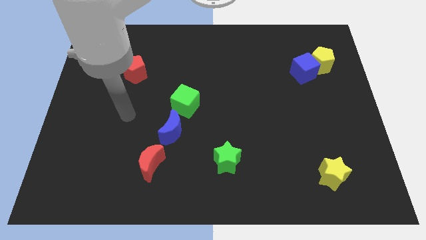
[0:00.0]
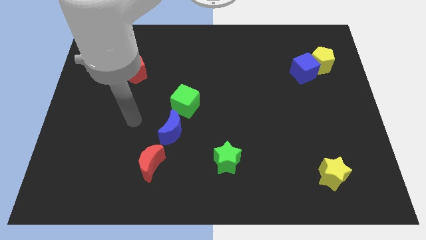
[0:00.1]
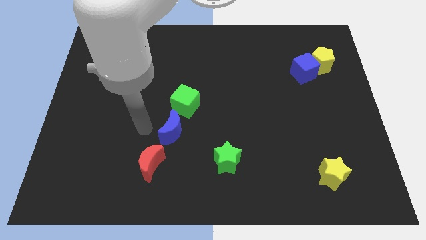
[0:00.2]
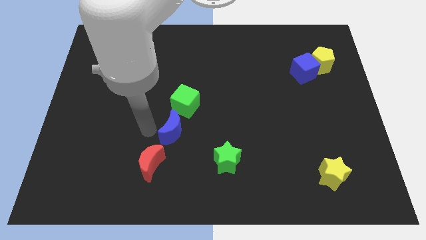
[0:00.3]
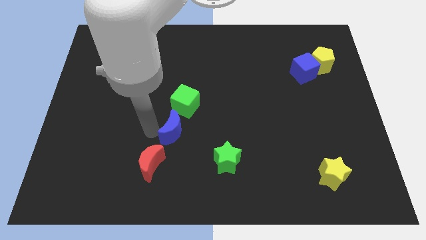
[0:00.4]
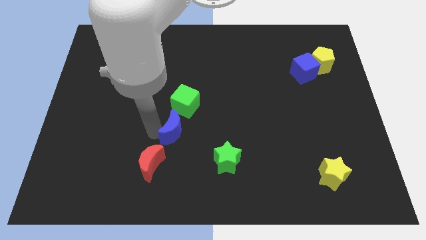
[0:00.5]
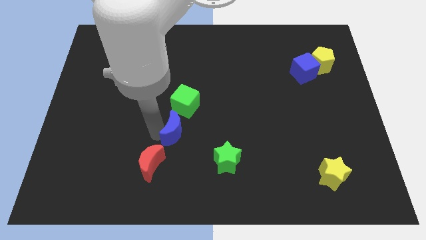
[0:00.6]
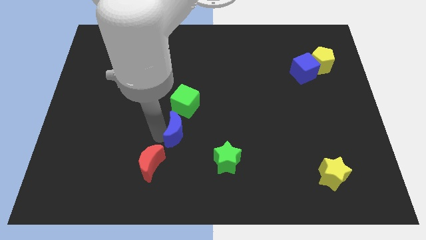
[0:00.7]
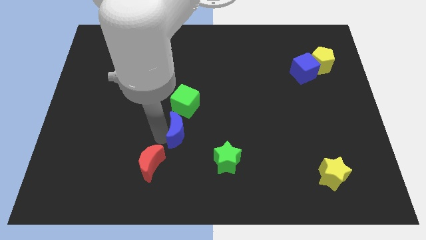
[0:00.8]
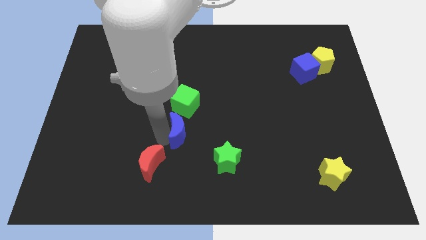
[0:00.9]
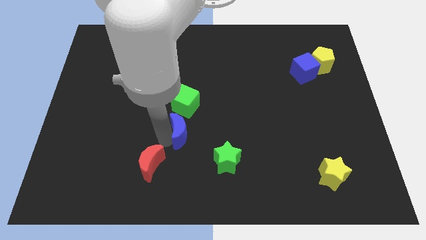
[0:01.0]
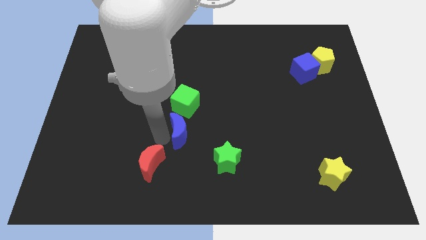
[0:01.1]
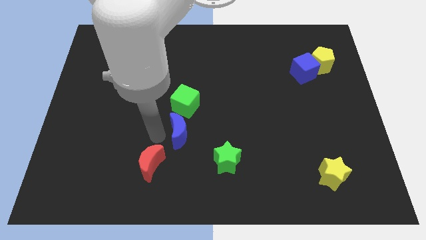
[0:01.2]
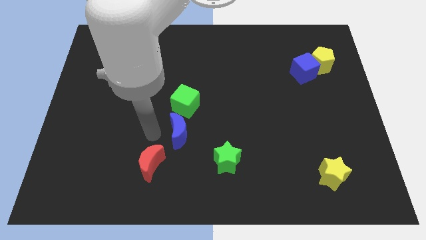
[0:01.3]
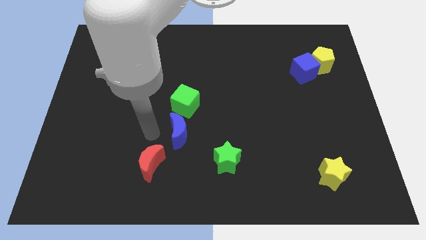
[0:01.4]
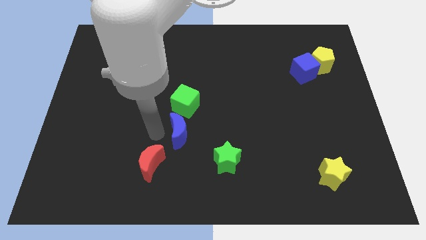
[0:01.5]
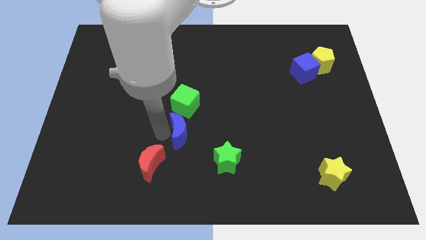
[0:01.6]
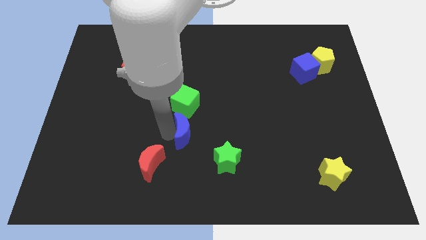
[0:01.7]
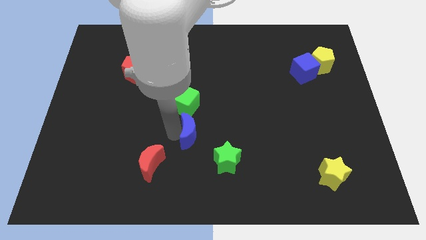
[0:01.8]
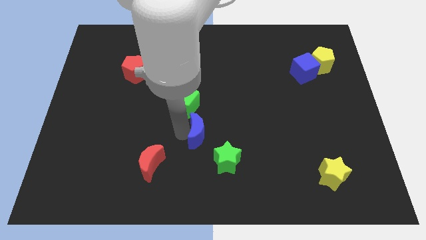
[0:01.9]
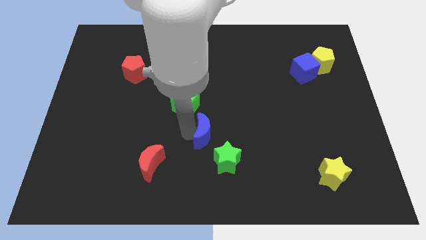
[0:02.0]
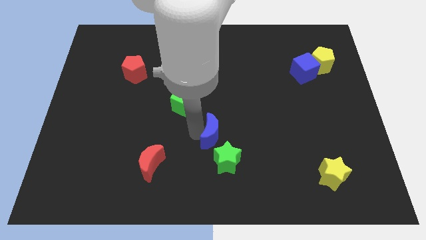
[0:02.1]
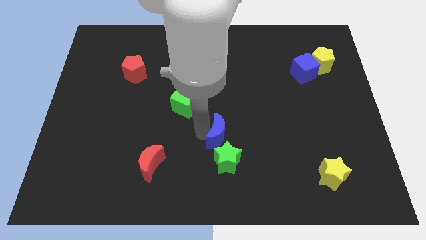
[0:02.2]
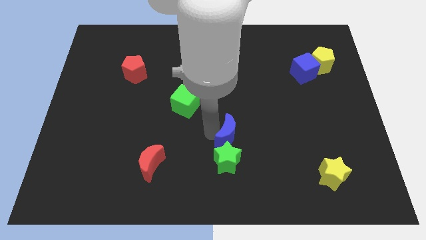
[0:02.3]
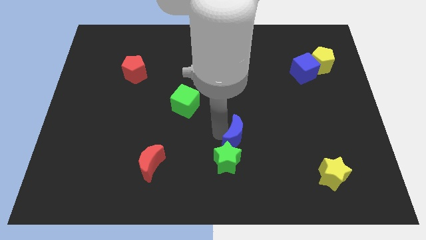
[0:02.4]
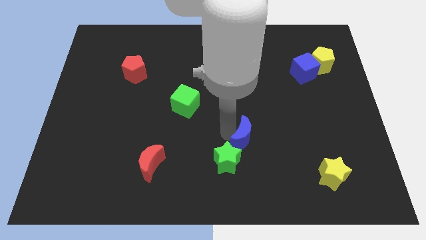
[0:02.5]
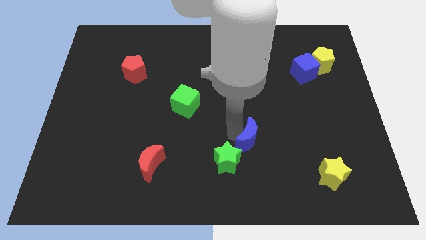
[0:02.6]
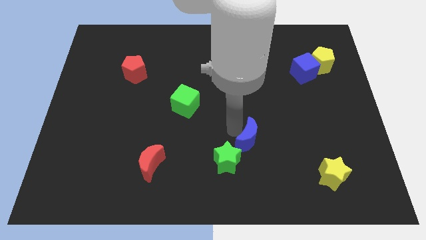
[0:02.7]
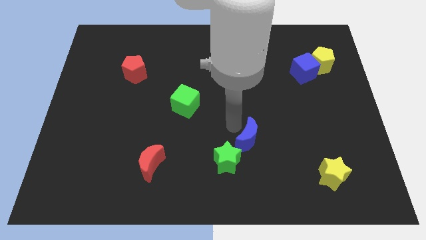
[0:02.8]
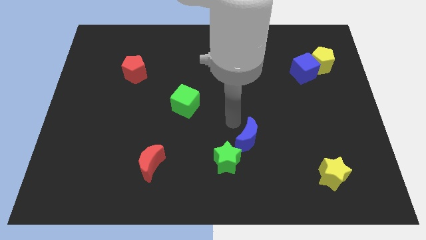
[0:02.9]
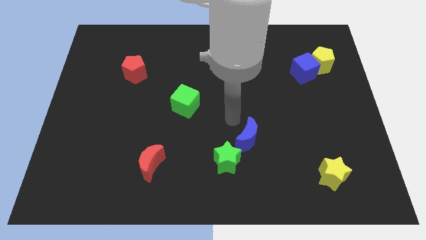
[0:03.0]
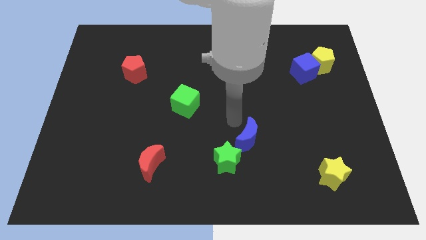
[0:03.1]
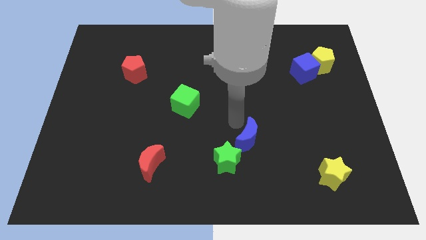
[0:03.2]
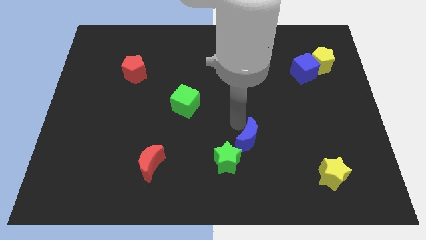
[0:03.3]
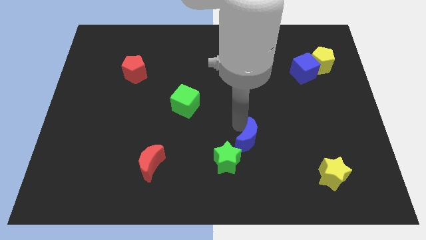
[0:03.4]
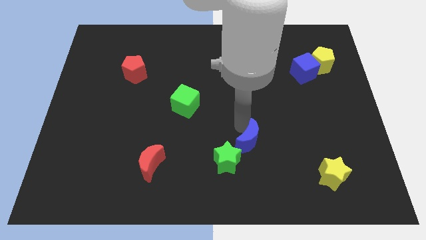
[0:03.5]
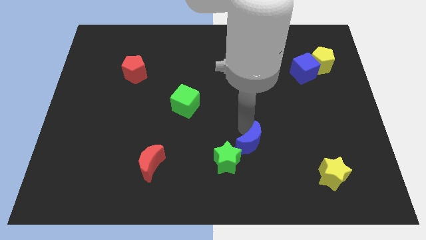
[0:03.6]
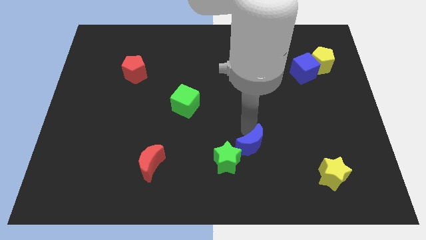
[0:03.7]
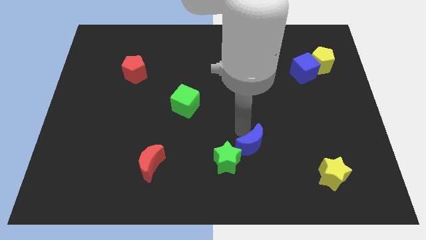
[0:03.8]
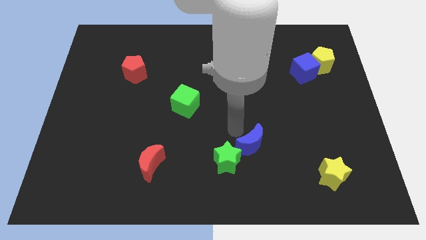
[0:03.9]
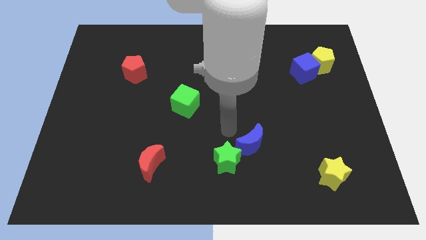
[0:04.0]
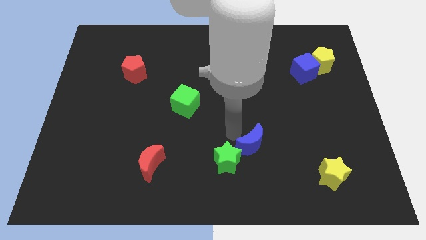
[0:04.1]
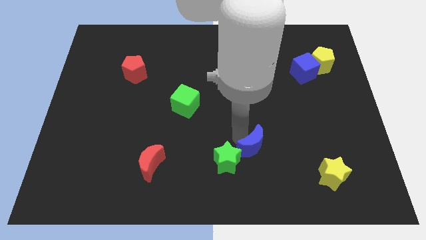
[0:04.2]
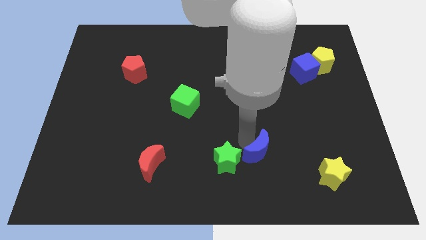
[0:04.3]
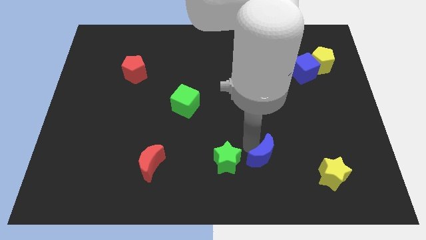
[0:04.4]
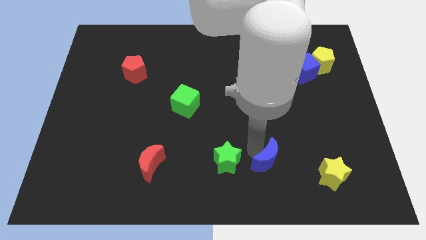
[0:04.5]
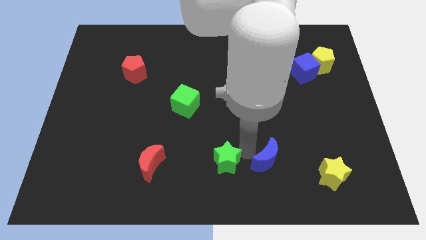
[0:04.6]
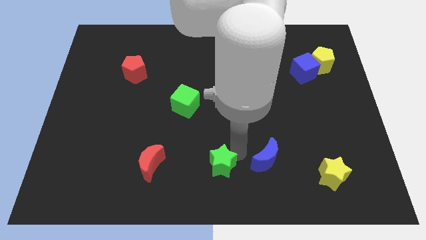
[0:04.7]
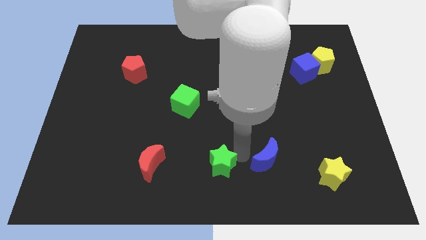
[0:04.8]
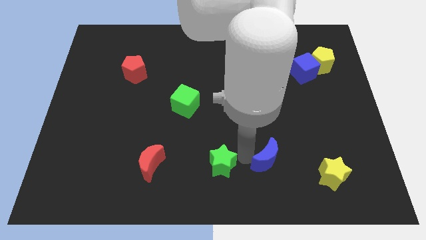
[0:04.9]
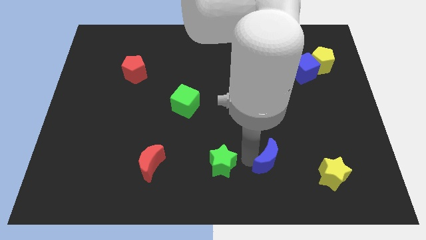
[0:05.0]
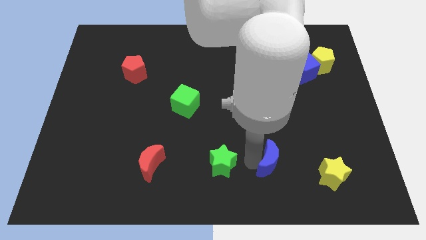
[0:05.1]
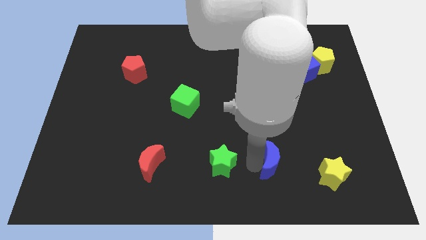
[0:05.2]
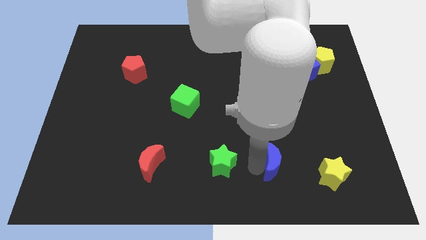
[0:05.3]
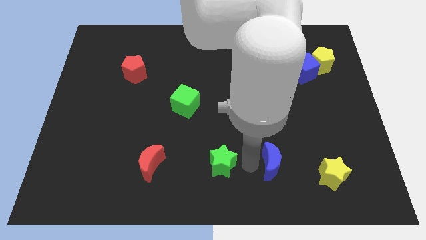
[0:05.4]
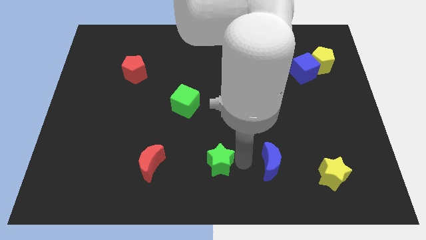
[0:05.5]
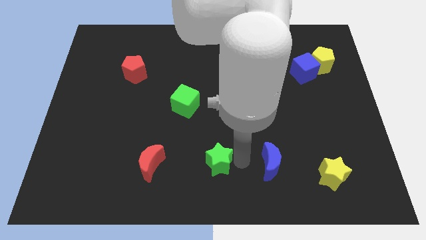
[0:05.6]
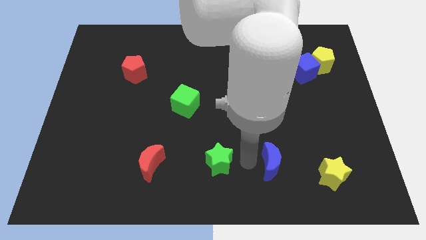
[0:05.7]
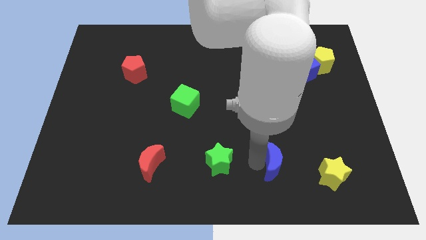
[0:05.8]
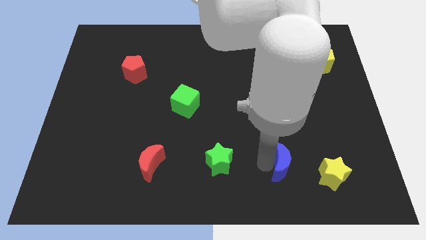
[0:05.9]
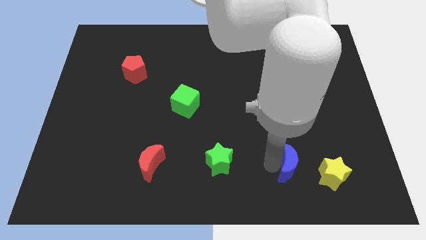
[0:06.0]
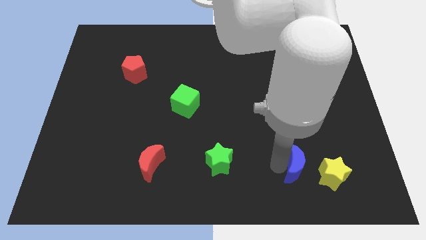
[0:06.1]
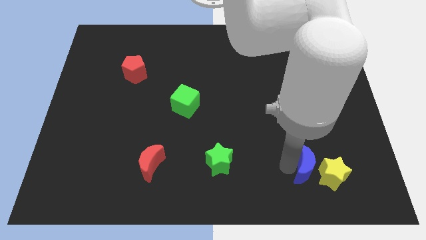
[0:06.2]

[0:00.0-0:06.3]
put the blue moon to the yellow star
